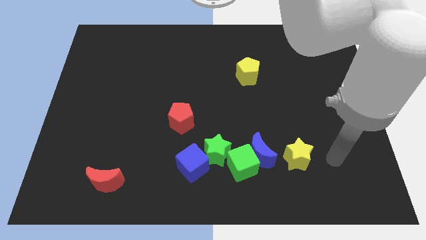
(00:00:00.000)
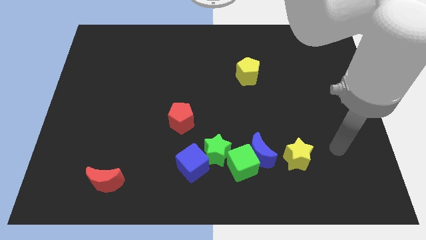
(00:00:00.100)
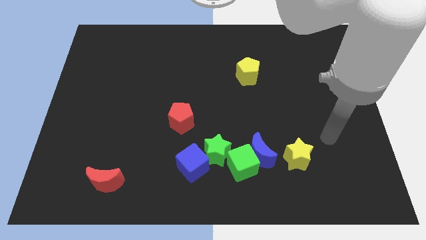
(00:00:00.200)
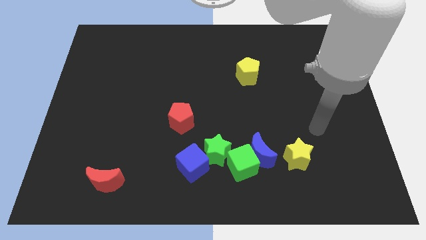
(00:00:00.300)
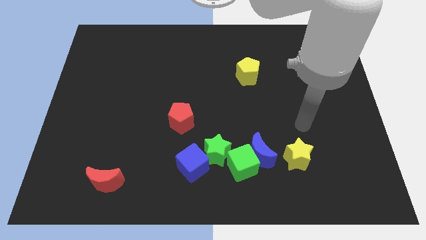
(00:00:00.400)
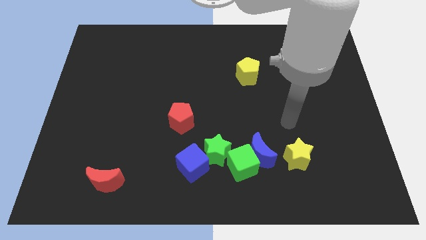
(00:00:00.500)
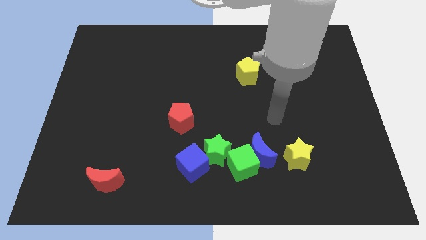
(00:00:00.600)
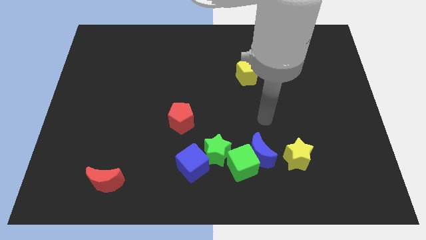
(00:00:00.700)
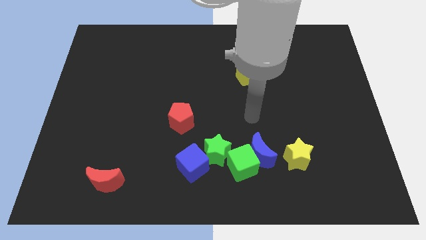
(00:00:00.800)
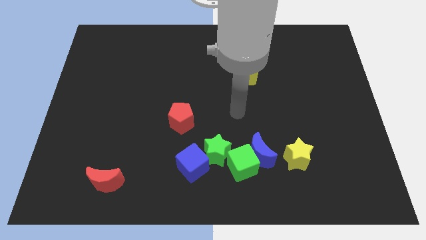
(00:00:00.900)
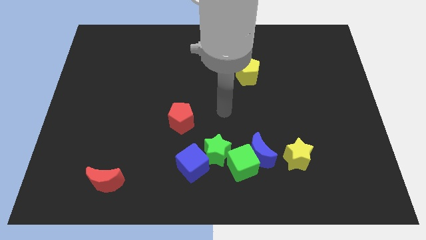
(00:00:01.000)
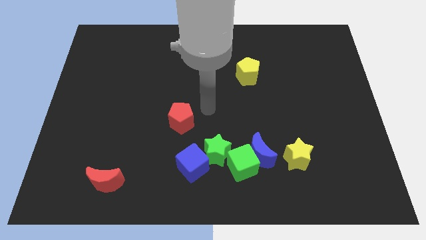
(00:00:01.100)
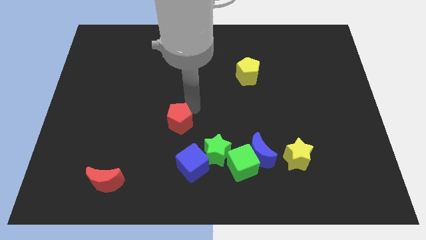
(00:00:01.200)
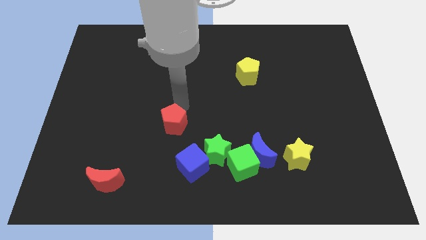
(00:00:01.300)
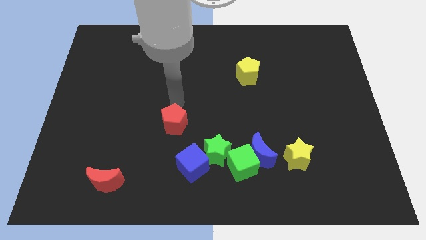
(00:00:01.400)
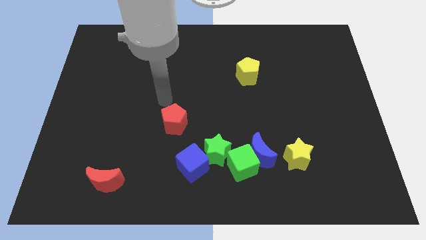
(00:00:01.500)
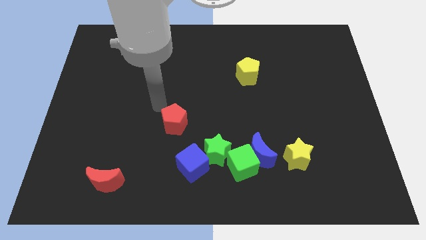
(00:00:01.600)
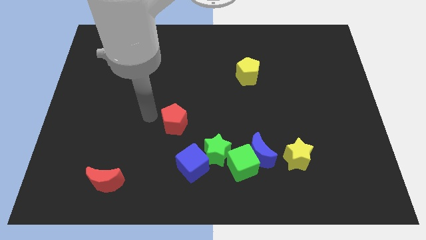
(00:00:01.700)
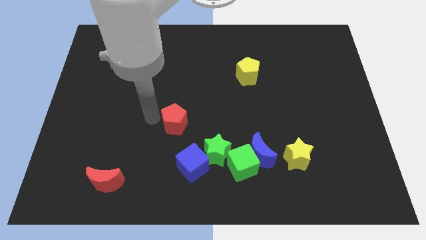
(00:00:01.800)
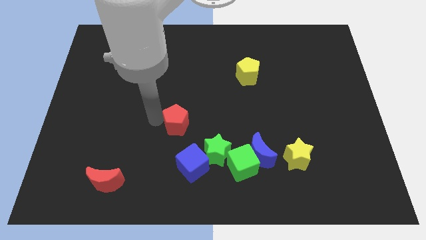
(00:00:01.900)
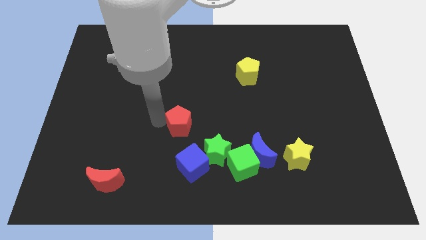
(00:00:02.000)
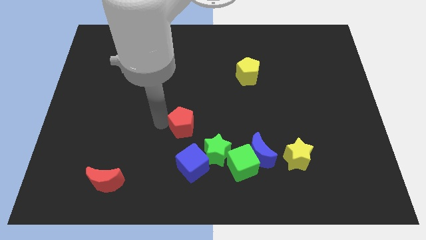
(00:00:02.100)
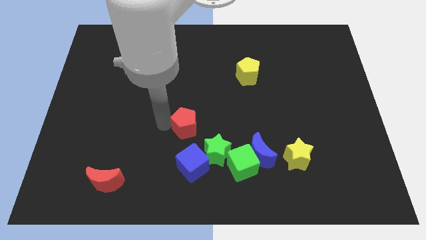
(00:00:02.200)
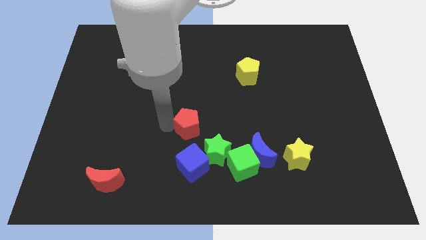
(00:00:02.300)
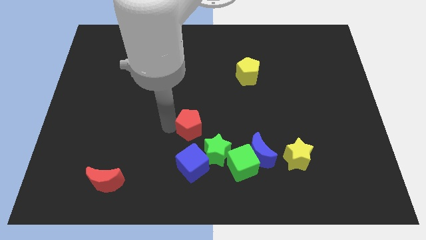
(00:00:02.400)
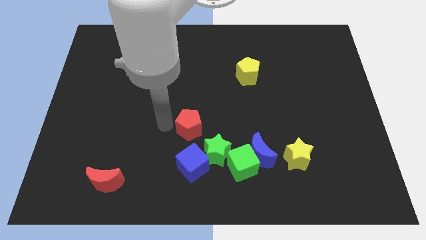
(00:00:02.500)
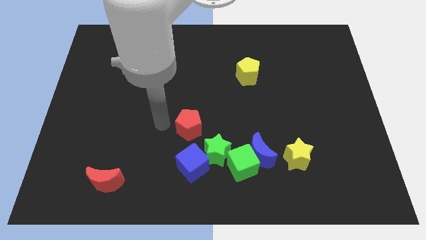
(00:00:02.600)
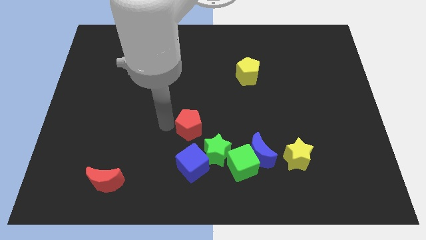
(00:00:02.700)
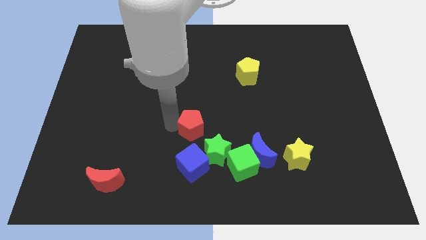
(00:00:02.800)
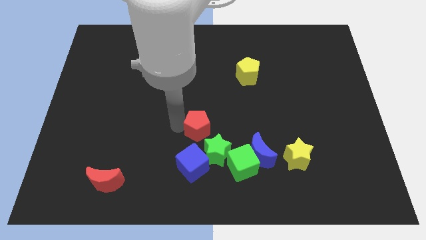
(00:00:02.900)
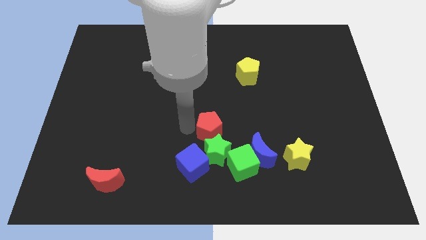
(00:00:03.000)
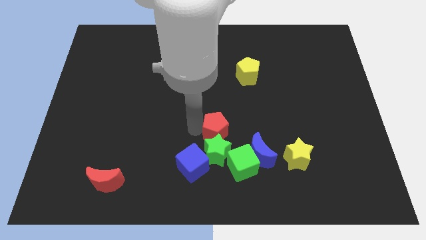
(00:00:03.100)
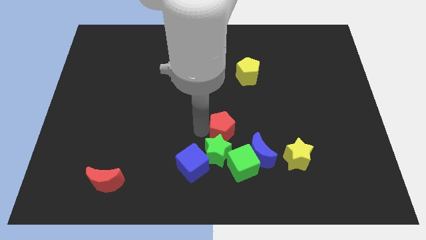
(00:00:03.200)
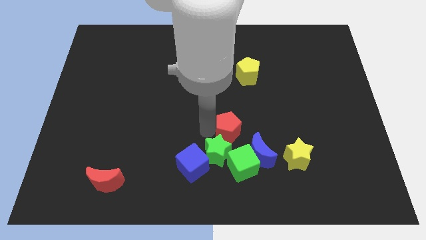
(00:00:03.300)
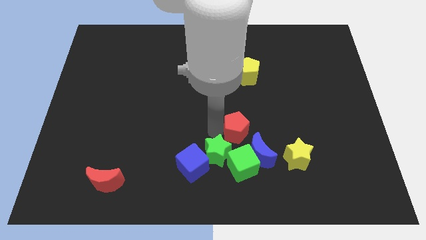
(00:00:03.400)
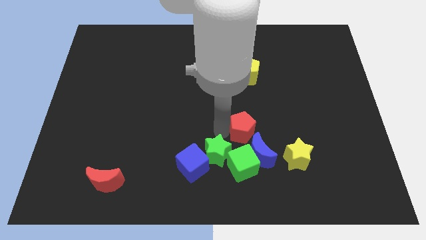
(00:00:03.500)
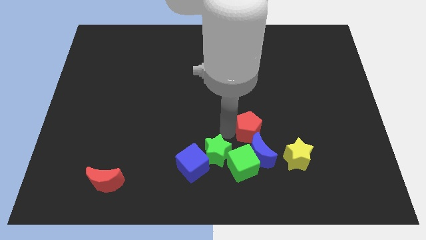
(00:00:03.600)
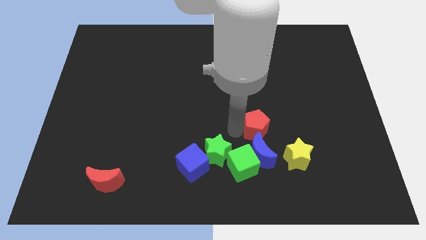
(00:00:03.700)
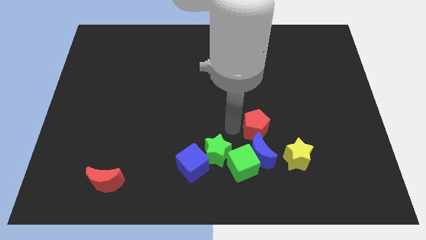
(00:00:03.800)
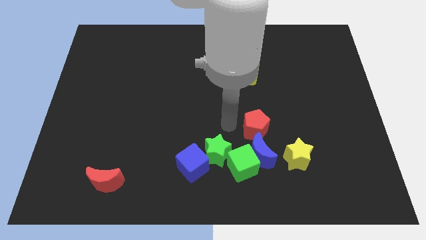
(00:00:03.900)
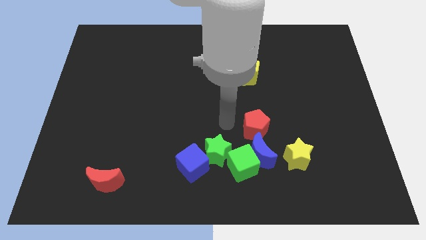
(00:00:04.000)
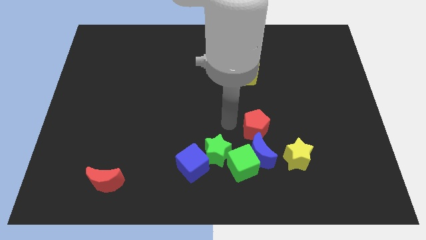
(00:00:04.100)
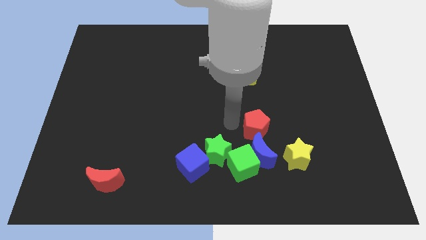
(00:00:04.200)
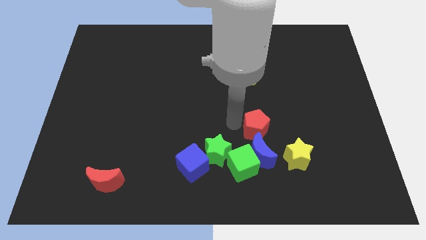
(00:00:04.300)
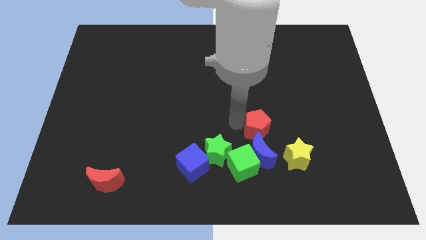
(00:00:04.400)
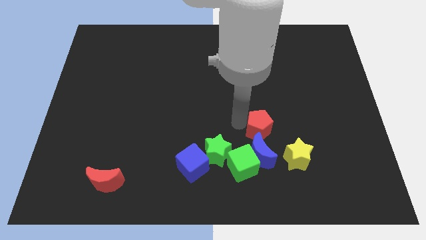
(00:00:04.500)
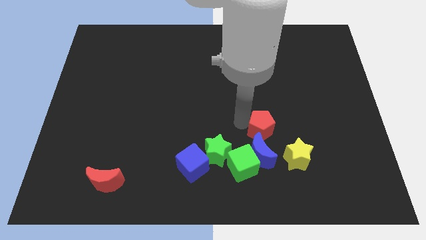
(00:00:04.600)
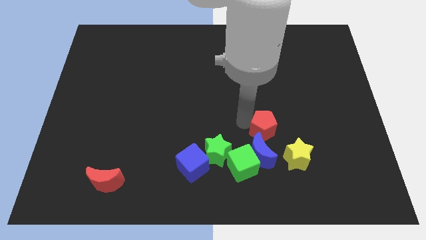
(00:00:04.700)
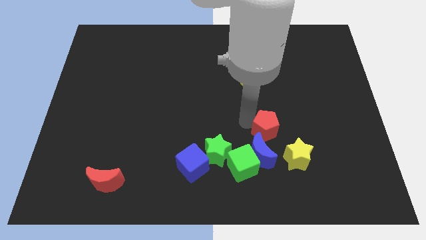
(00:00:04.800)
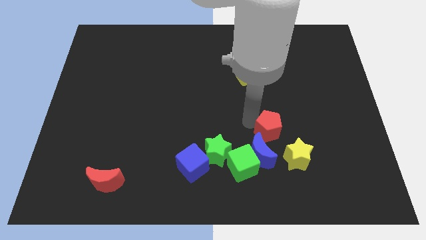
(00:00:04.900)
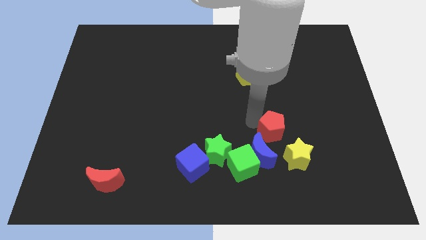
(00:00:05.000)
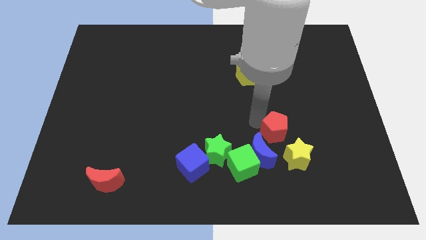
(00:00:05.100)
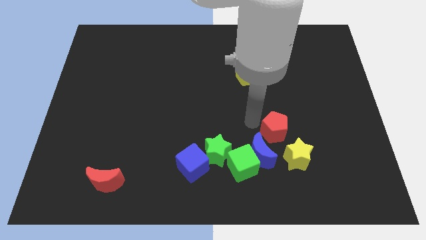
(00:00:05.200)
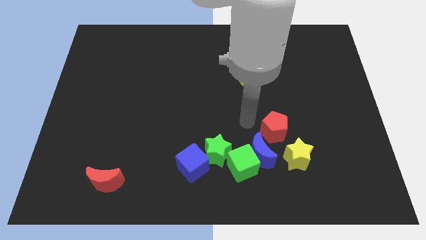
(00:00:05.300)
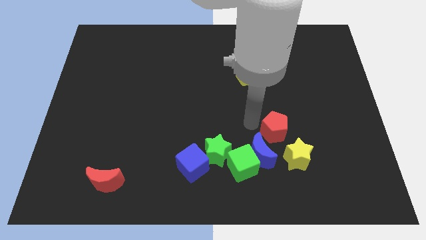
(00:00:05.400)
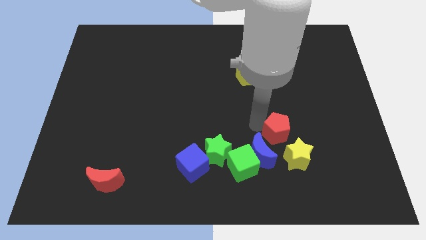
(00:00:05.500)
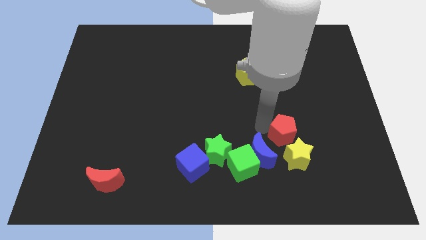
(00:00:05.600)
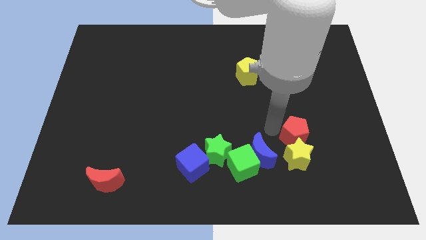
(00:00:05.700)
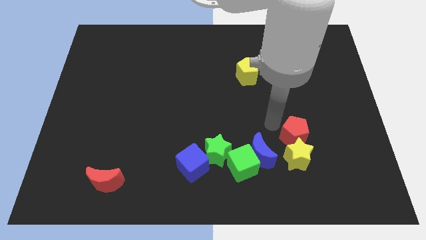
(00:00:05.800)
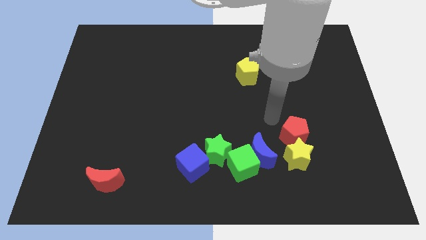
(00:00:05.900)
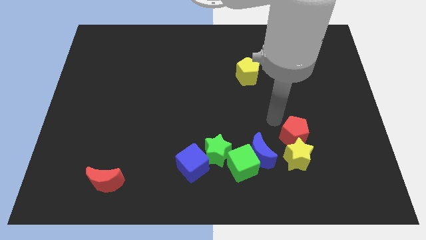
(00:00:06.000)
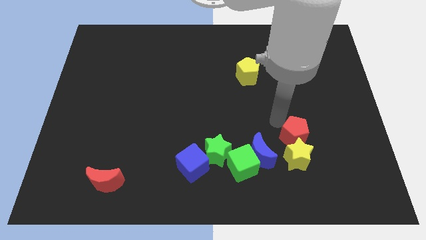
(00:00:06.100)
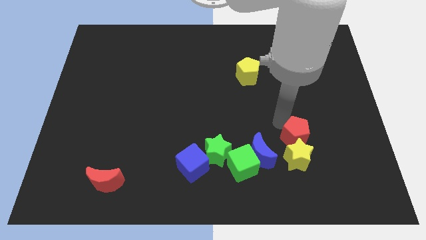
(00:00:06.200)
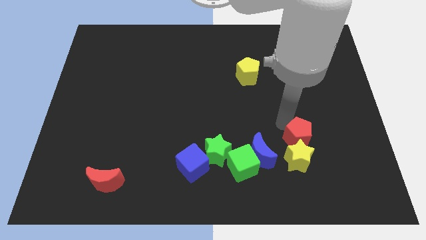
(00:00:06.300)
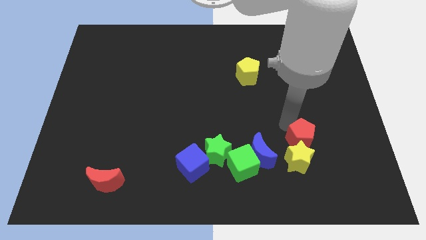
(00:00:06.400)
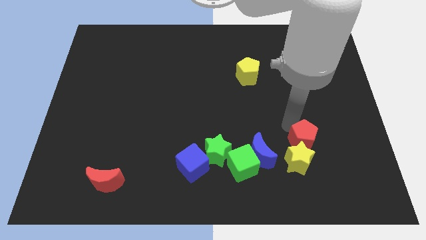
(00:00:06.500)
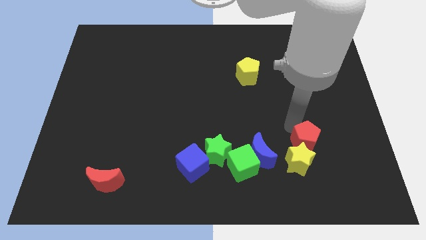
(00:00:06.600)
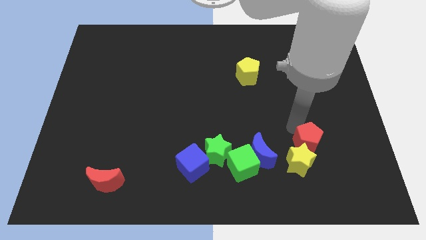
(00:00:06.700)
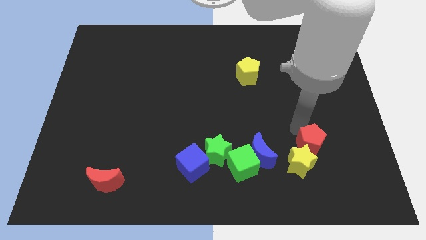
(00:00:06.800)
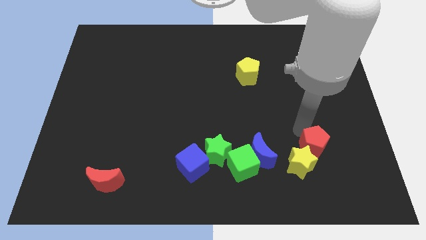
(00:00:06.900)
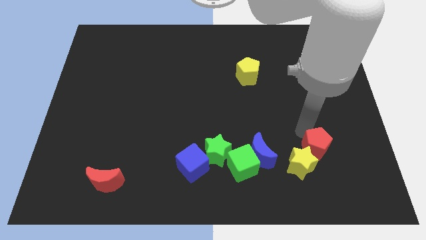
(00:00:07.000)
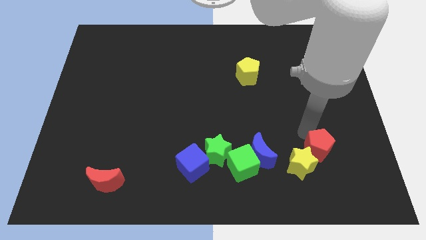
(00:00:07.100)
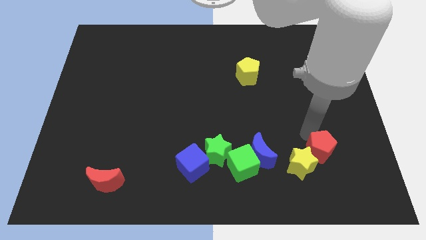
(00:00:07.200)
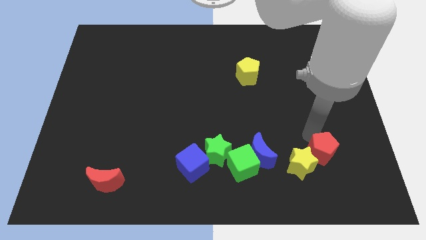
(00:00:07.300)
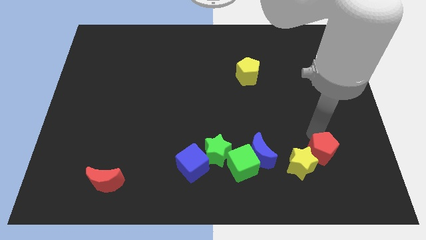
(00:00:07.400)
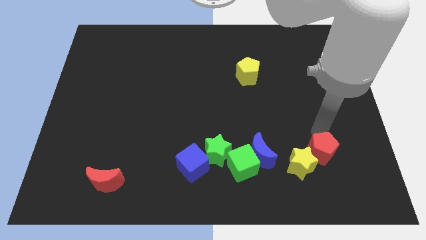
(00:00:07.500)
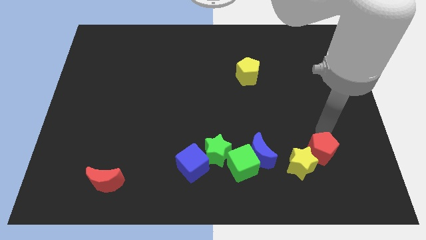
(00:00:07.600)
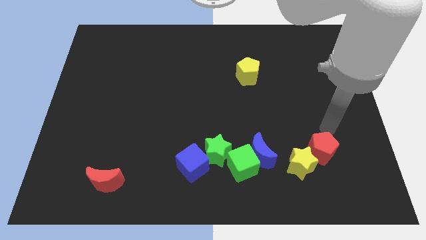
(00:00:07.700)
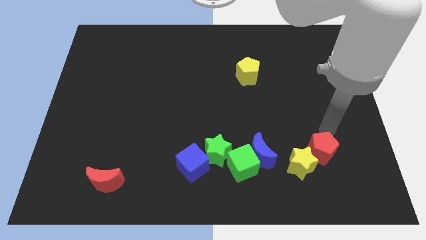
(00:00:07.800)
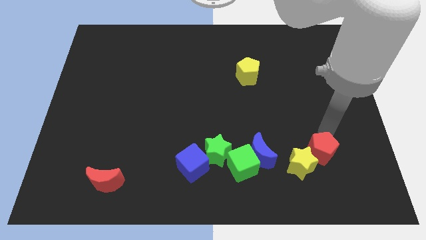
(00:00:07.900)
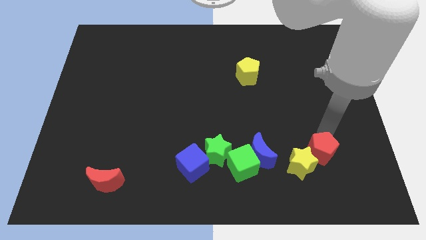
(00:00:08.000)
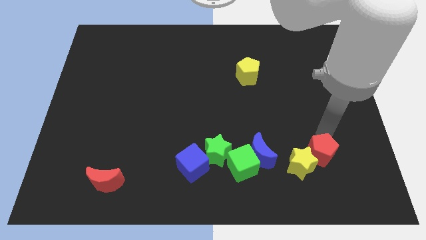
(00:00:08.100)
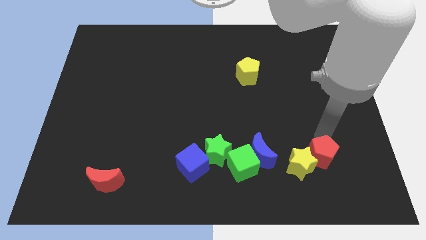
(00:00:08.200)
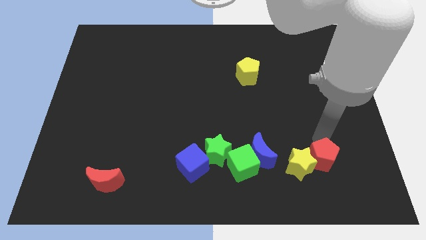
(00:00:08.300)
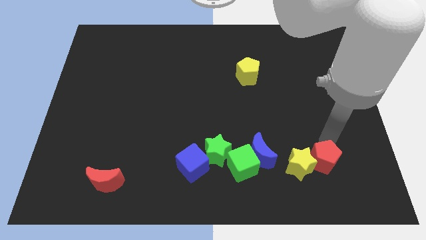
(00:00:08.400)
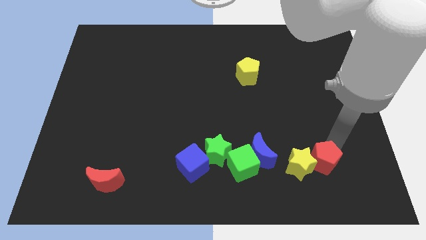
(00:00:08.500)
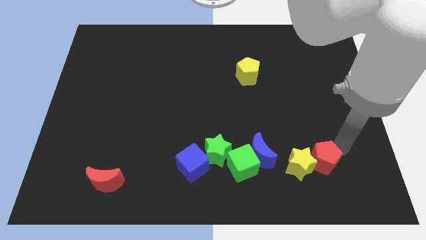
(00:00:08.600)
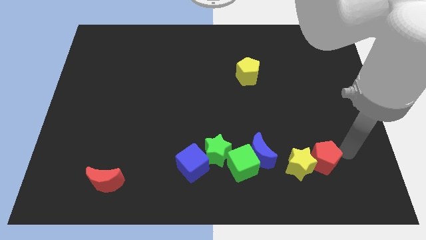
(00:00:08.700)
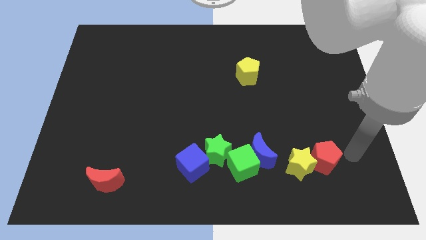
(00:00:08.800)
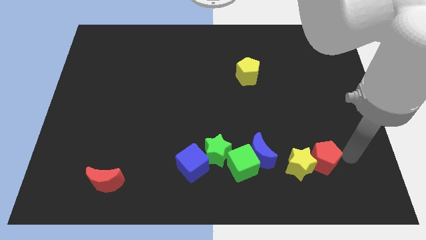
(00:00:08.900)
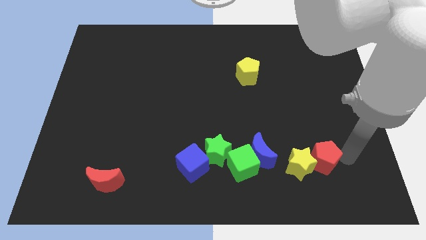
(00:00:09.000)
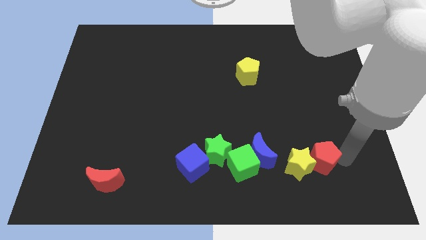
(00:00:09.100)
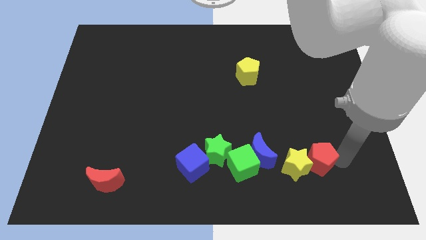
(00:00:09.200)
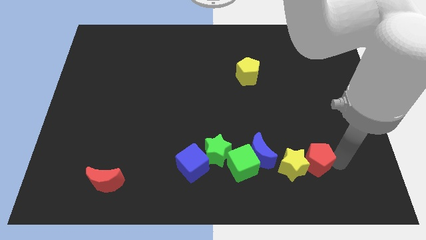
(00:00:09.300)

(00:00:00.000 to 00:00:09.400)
put the red pentagon to the right side of the green cube
